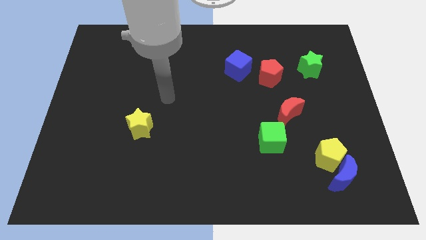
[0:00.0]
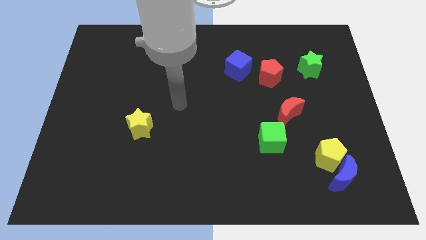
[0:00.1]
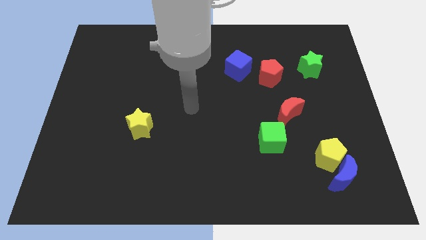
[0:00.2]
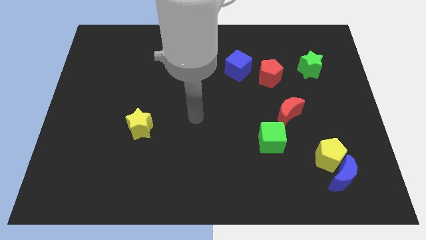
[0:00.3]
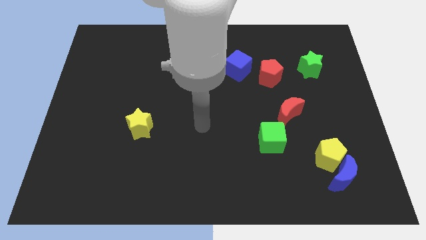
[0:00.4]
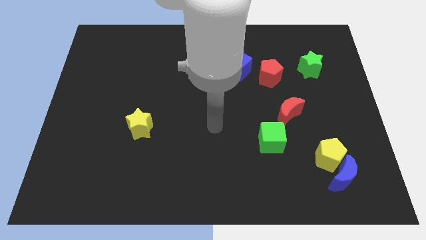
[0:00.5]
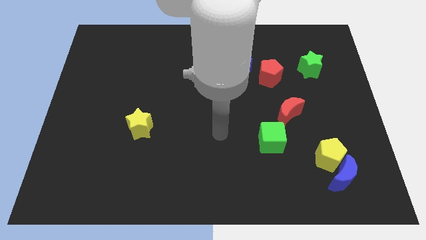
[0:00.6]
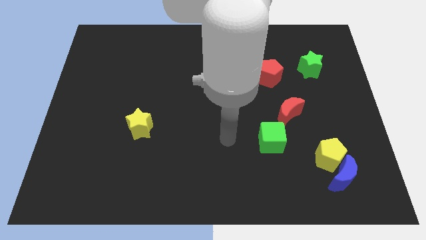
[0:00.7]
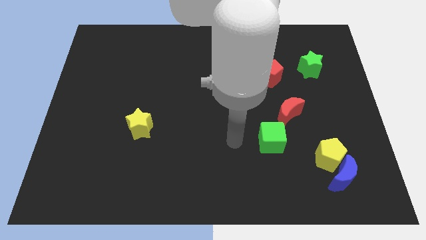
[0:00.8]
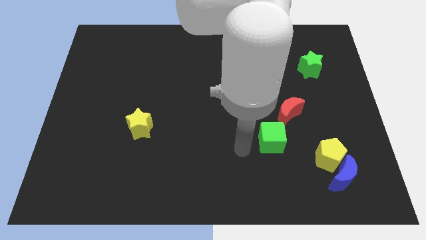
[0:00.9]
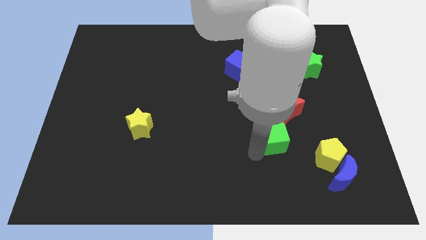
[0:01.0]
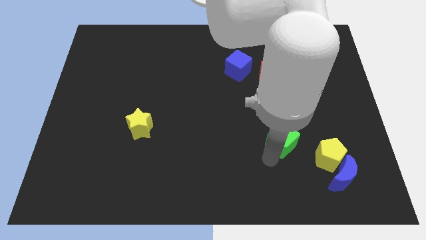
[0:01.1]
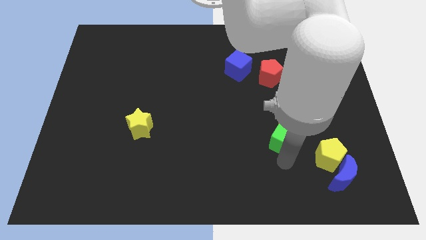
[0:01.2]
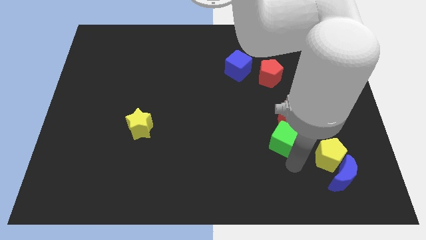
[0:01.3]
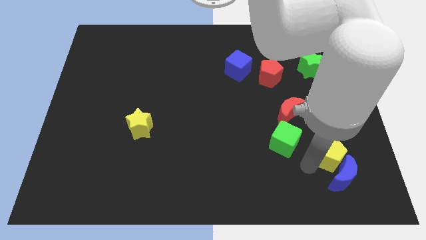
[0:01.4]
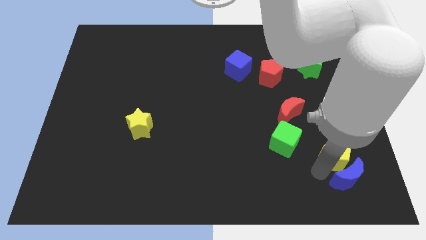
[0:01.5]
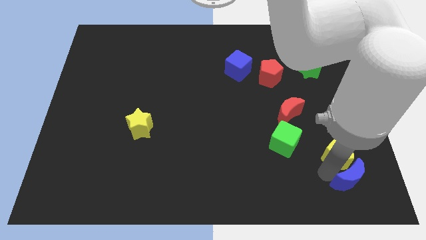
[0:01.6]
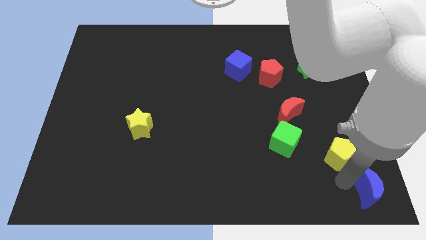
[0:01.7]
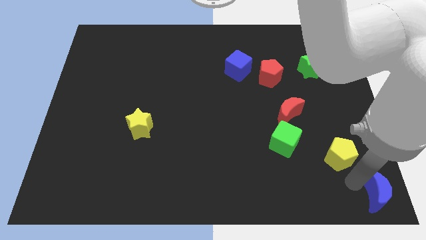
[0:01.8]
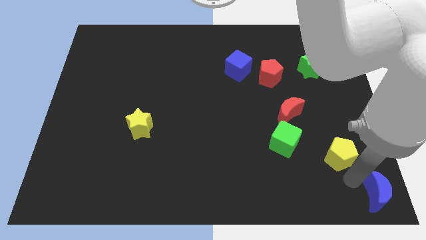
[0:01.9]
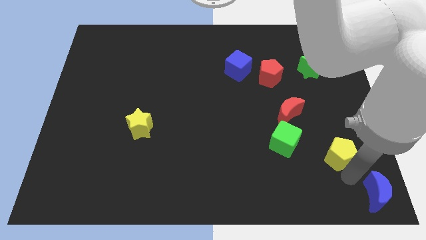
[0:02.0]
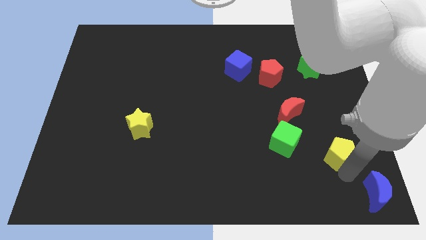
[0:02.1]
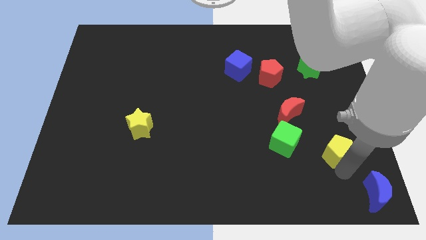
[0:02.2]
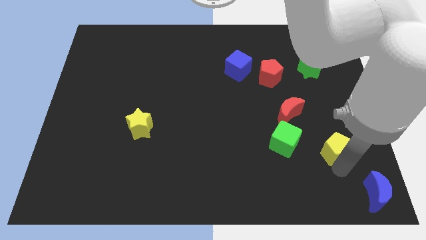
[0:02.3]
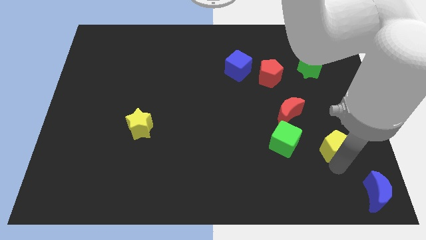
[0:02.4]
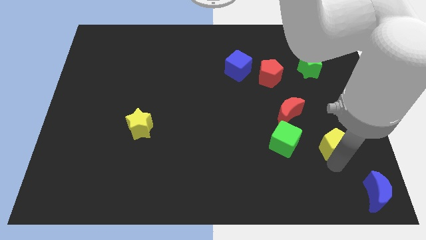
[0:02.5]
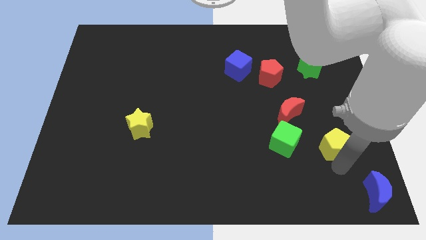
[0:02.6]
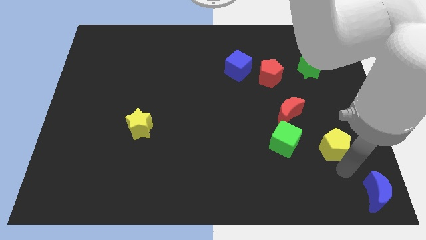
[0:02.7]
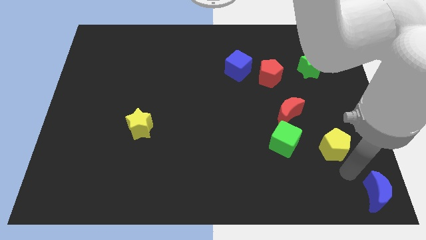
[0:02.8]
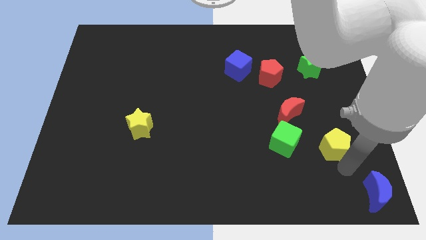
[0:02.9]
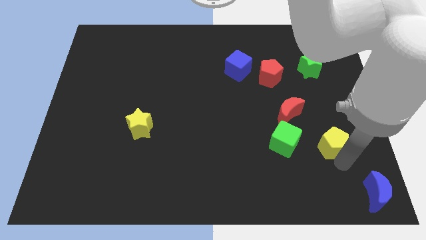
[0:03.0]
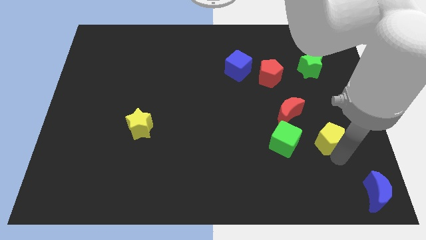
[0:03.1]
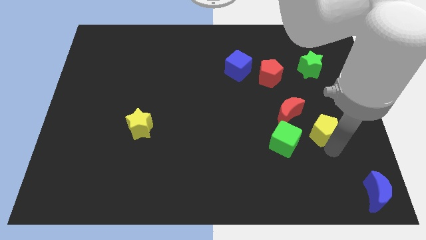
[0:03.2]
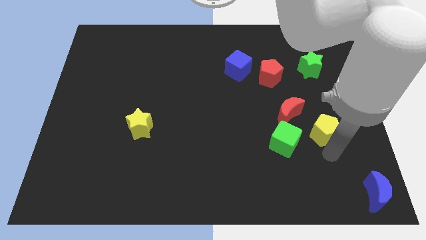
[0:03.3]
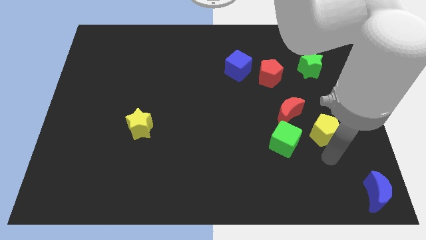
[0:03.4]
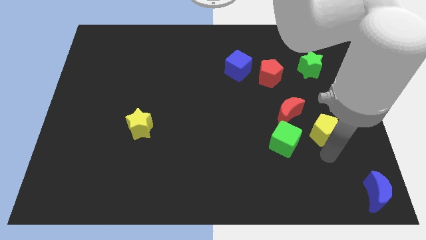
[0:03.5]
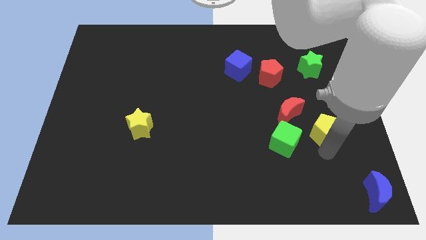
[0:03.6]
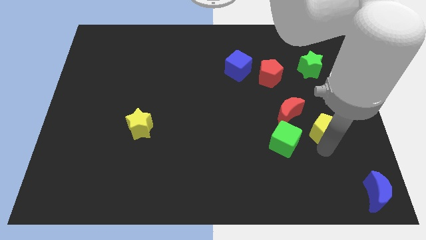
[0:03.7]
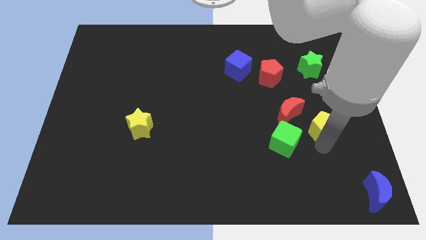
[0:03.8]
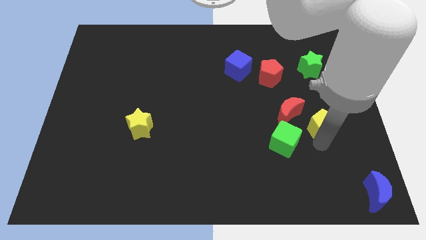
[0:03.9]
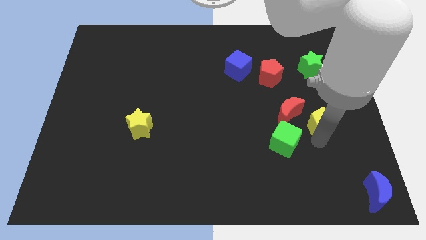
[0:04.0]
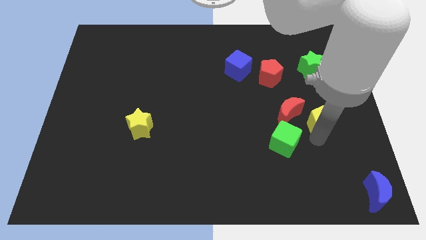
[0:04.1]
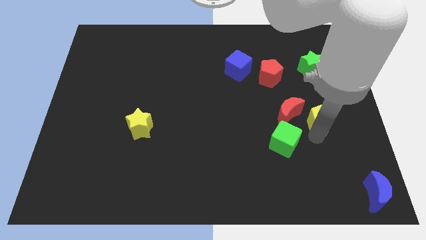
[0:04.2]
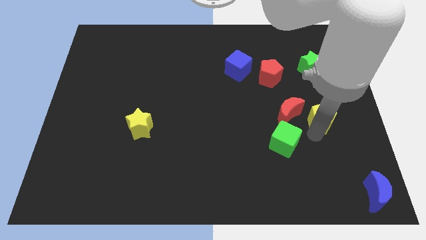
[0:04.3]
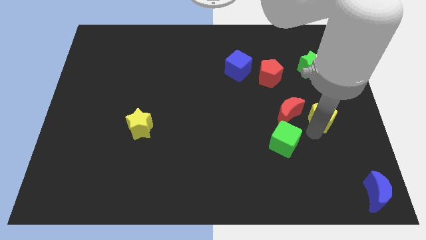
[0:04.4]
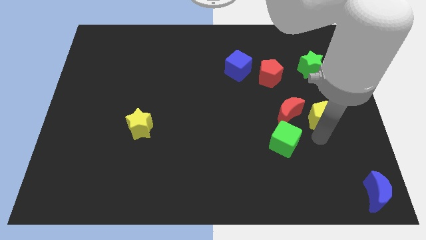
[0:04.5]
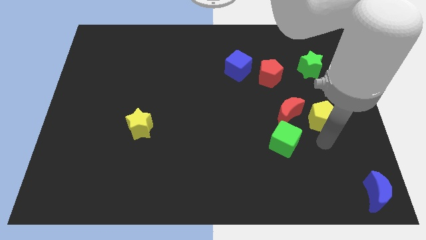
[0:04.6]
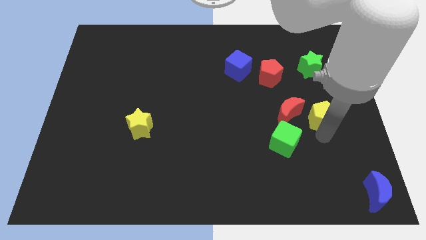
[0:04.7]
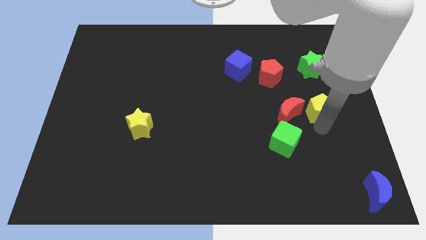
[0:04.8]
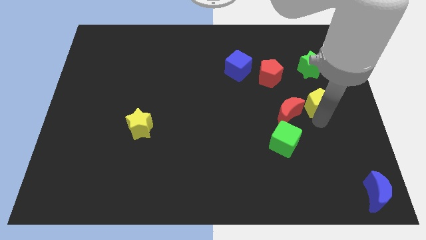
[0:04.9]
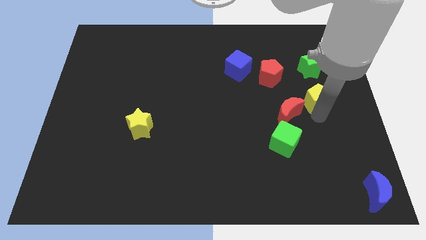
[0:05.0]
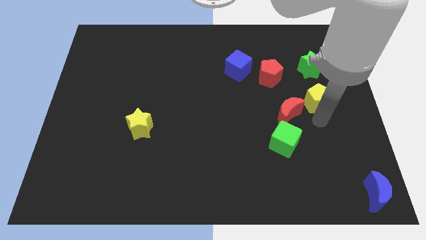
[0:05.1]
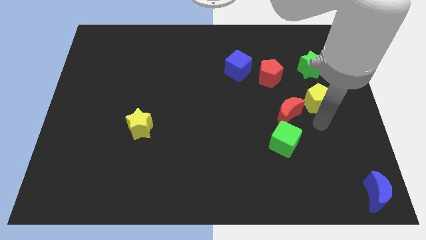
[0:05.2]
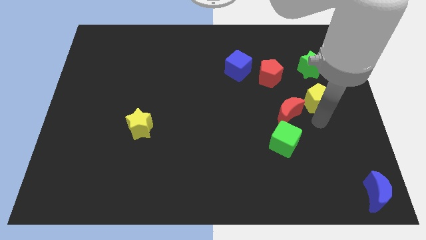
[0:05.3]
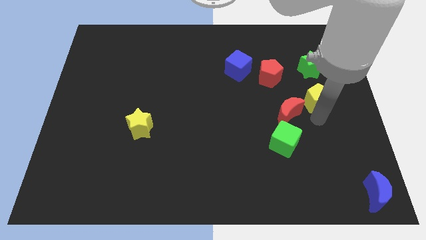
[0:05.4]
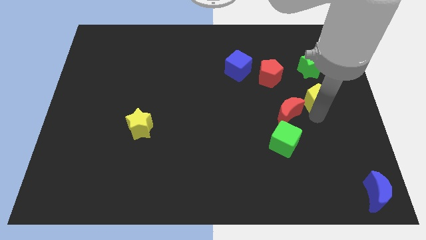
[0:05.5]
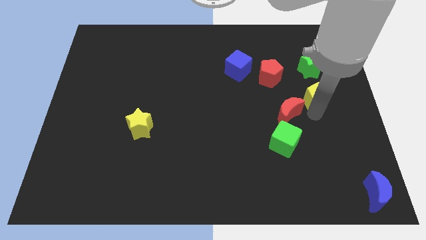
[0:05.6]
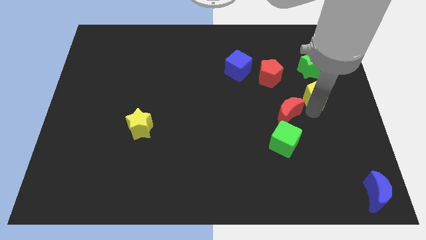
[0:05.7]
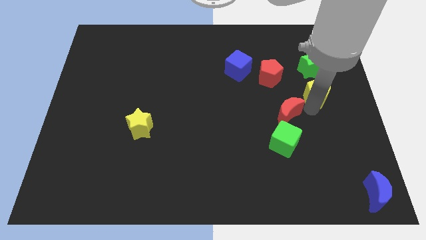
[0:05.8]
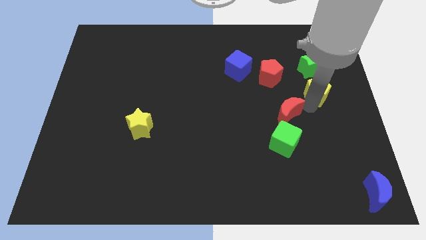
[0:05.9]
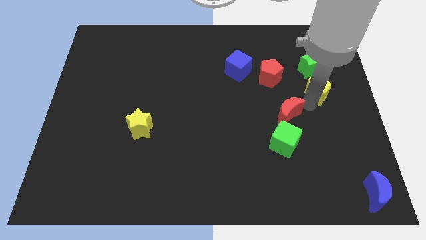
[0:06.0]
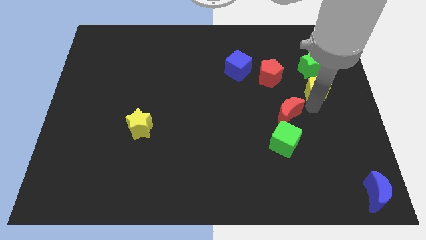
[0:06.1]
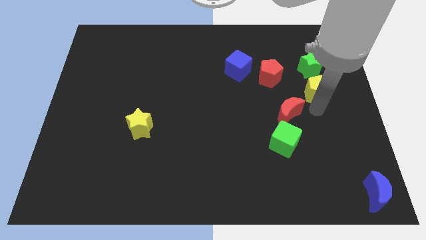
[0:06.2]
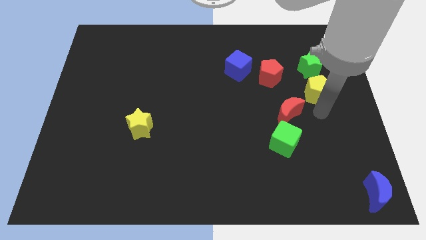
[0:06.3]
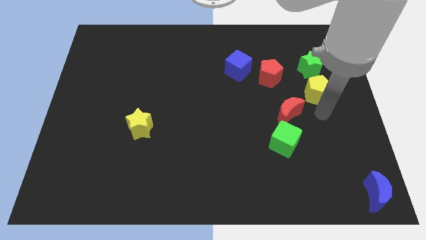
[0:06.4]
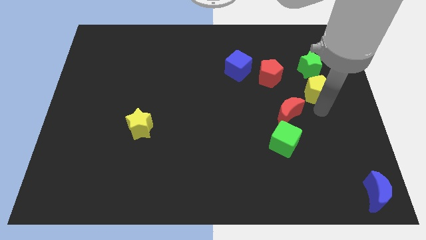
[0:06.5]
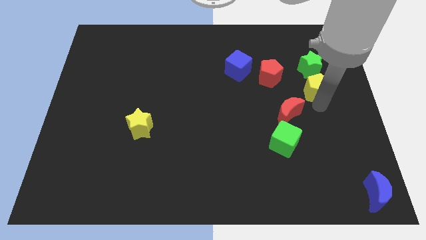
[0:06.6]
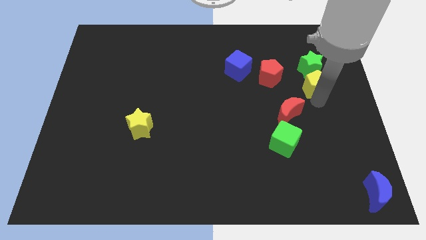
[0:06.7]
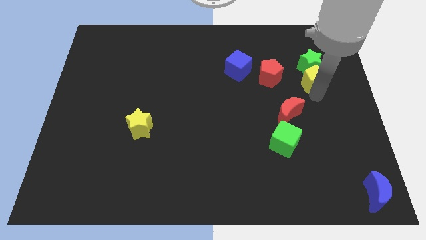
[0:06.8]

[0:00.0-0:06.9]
move the yellow pentagon next to the green star

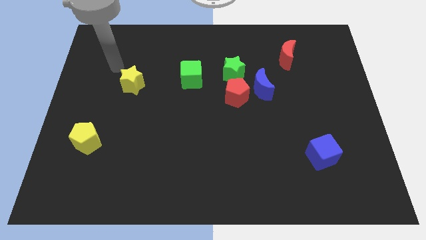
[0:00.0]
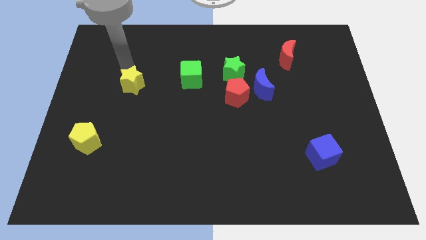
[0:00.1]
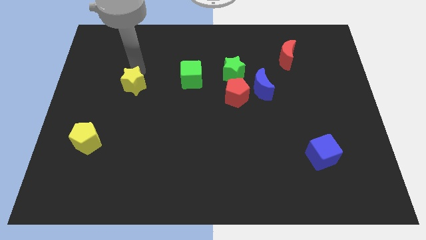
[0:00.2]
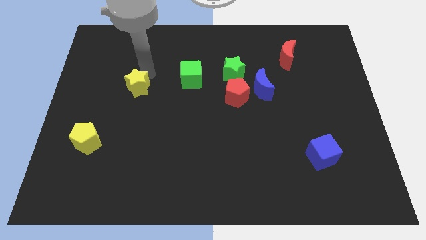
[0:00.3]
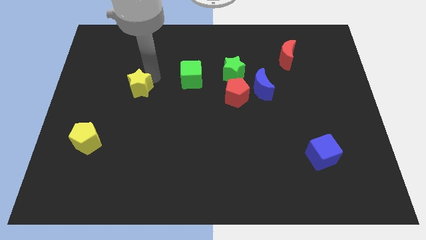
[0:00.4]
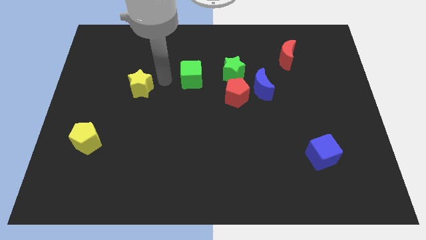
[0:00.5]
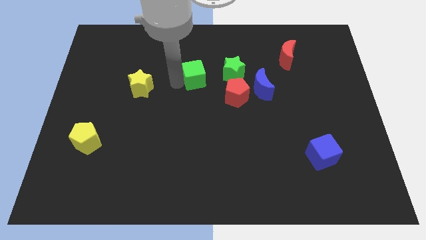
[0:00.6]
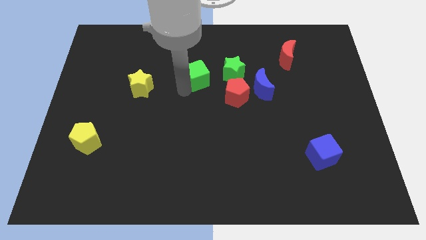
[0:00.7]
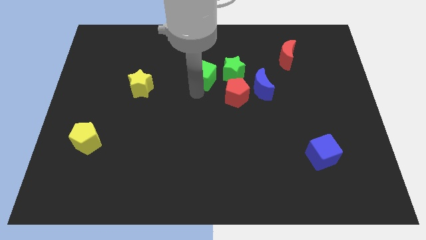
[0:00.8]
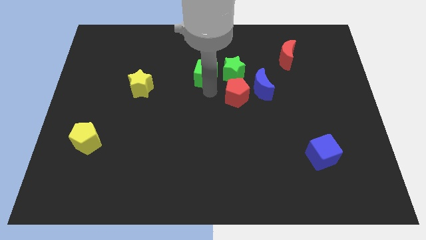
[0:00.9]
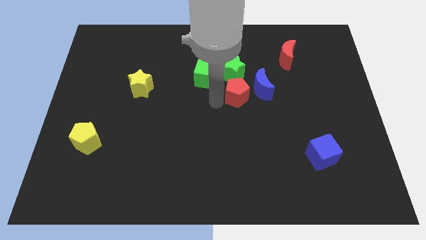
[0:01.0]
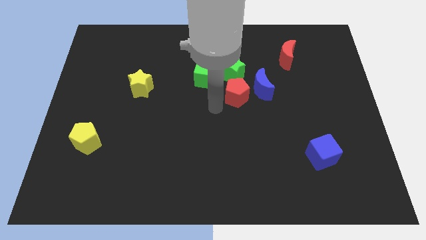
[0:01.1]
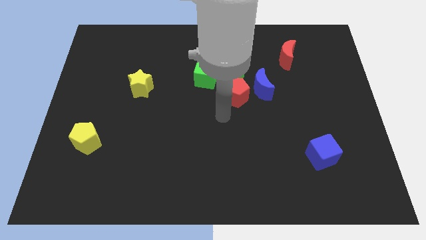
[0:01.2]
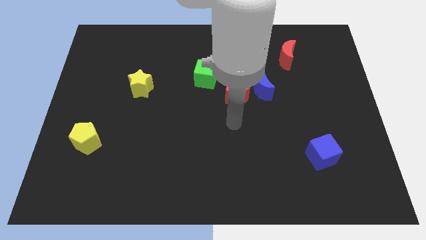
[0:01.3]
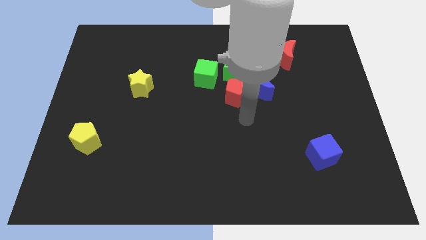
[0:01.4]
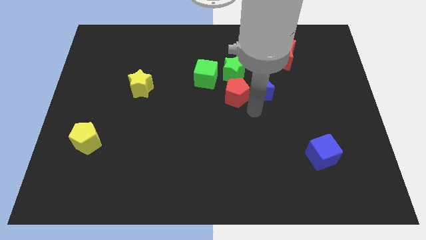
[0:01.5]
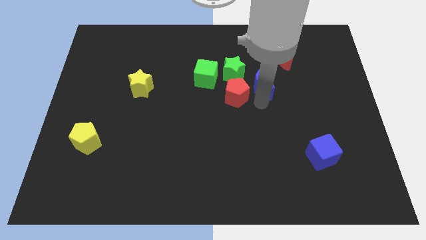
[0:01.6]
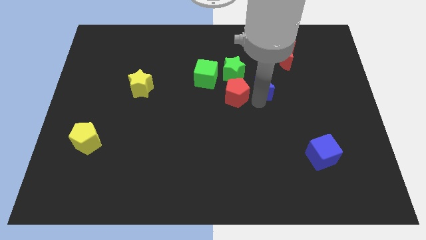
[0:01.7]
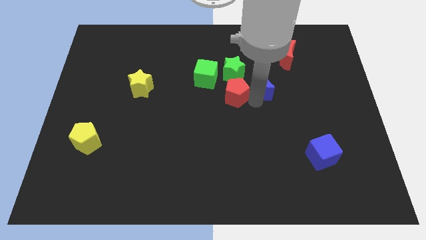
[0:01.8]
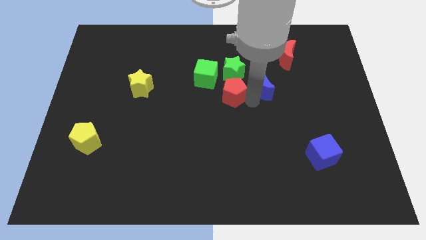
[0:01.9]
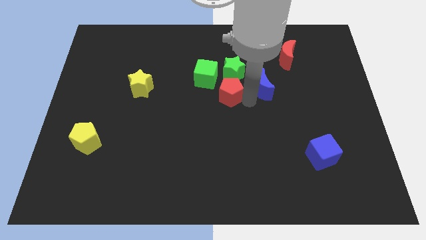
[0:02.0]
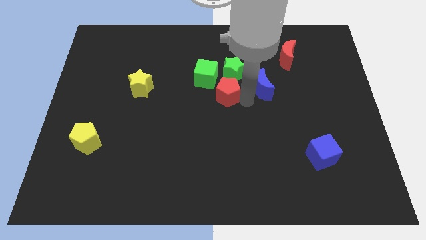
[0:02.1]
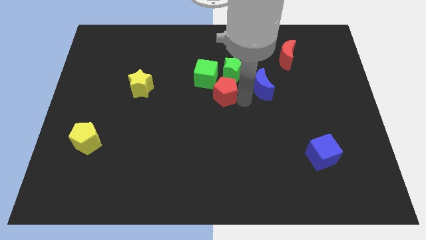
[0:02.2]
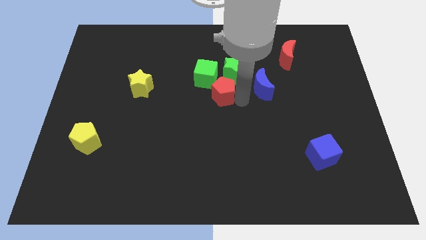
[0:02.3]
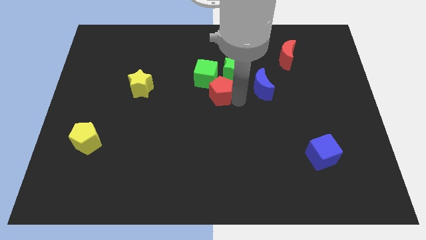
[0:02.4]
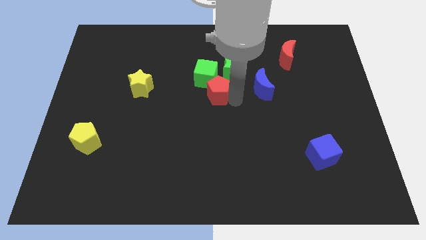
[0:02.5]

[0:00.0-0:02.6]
slide the red pentagon to the green cube
